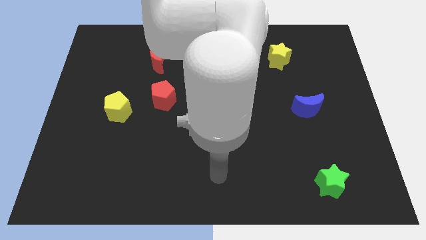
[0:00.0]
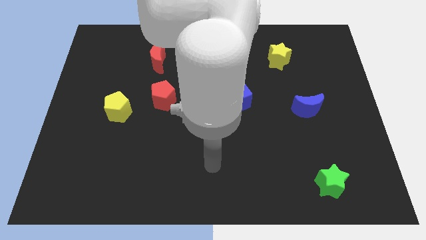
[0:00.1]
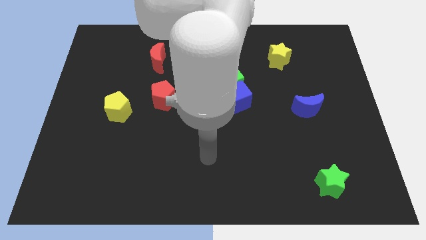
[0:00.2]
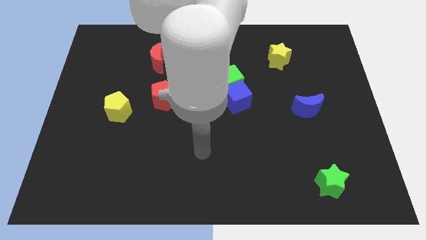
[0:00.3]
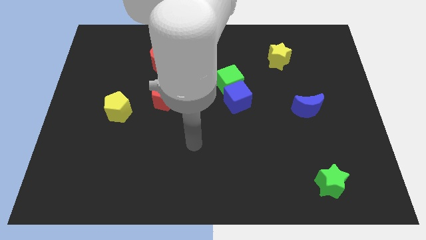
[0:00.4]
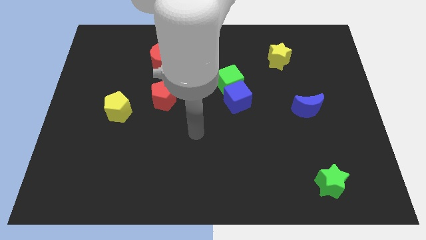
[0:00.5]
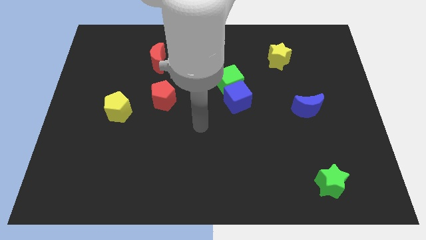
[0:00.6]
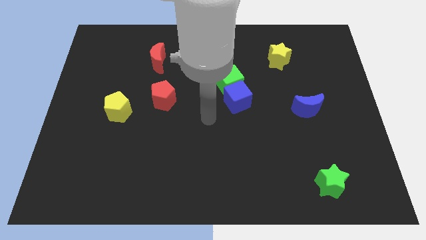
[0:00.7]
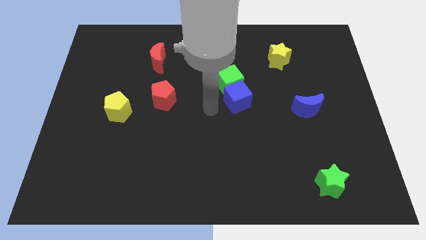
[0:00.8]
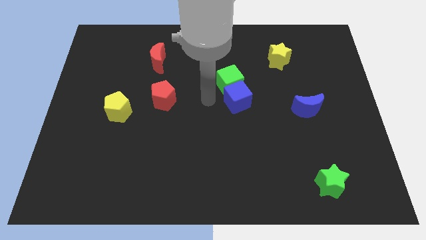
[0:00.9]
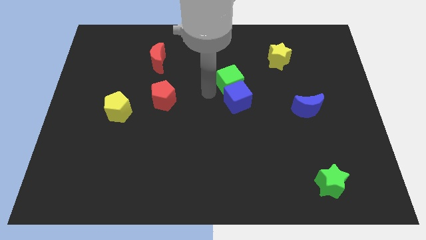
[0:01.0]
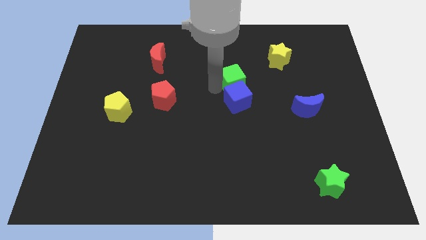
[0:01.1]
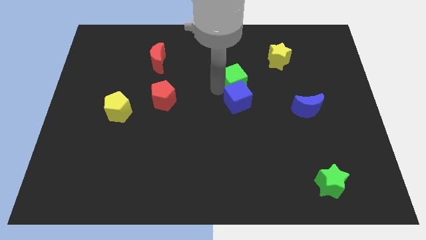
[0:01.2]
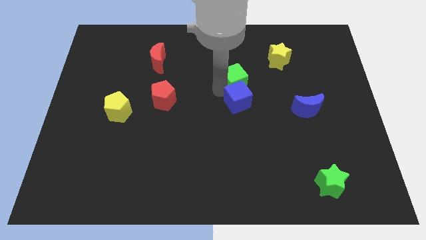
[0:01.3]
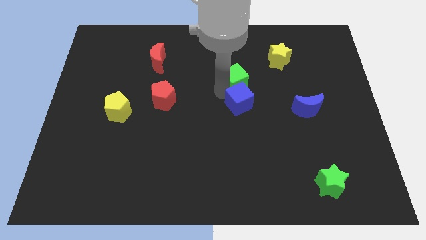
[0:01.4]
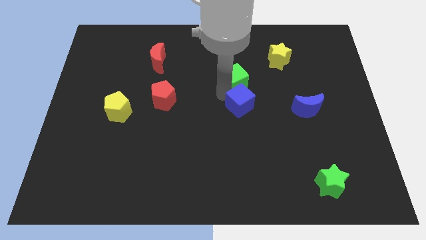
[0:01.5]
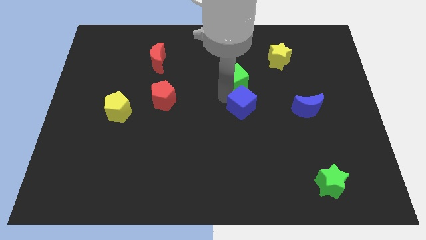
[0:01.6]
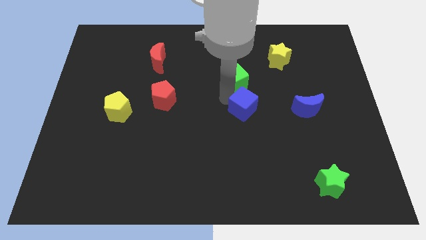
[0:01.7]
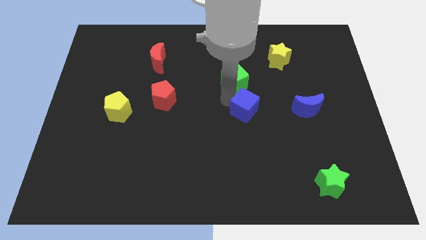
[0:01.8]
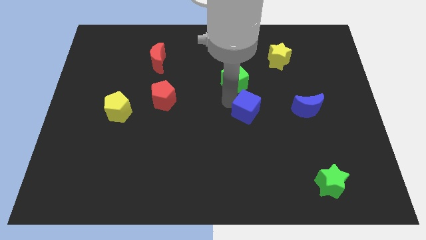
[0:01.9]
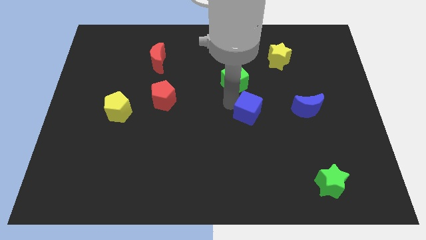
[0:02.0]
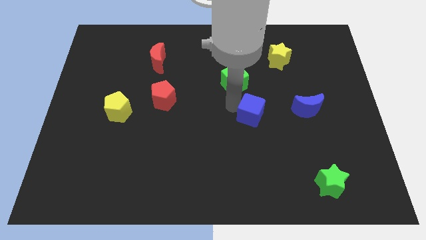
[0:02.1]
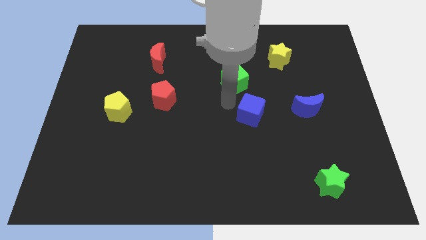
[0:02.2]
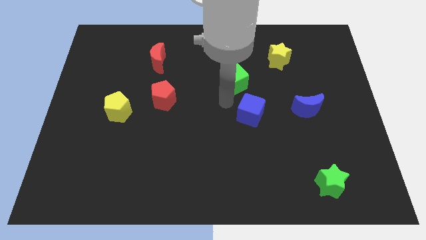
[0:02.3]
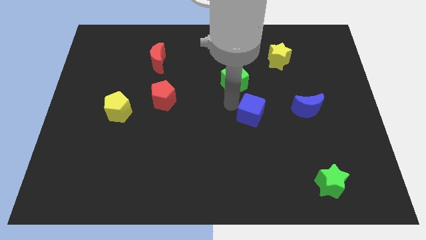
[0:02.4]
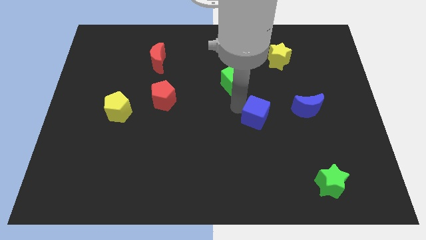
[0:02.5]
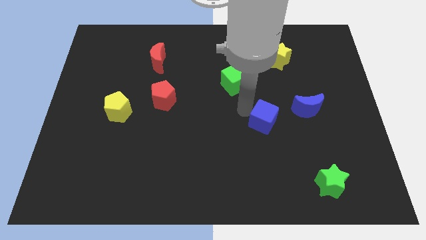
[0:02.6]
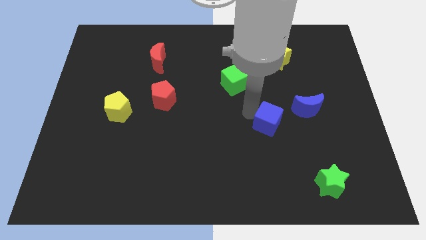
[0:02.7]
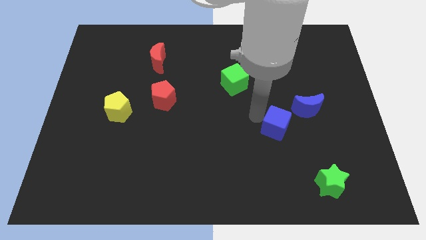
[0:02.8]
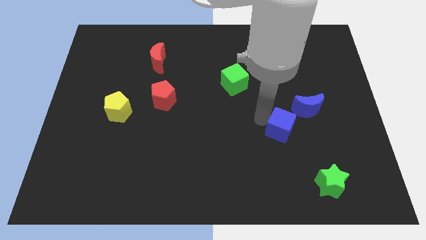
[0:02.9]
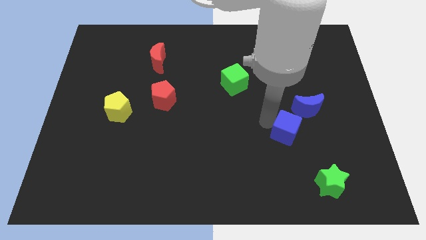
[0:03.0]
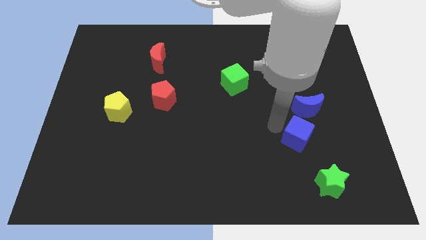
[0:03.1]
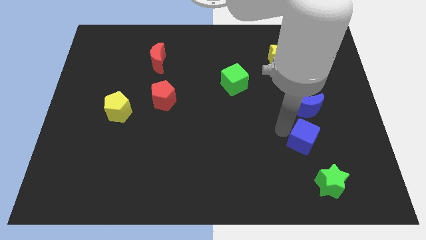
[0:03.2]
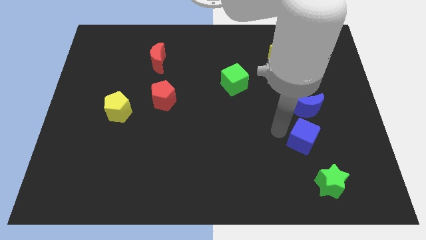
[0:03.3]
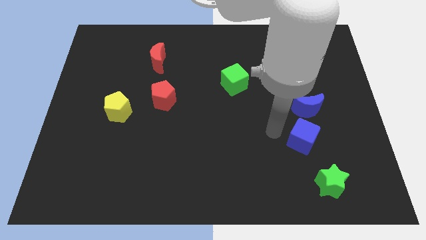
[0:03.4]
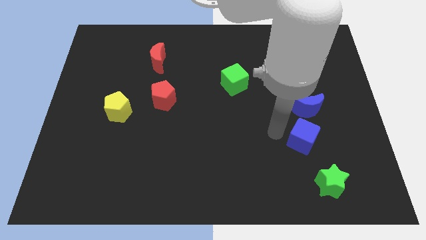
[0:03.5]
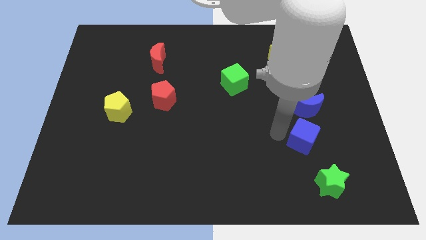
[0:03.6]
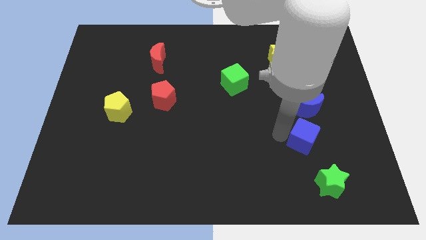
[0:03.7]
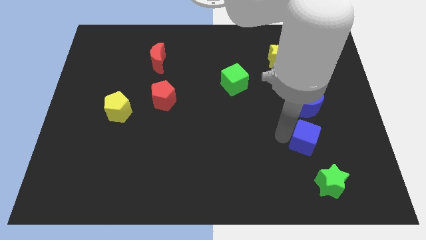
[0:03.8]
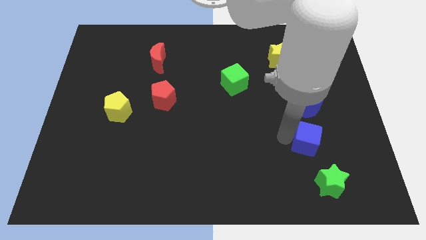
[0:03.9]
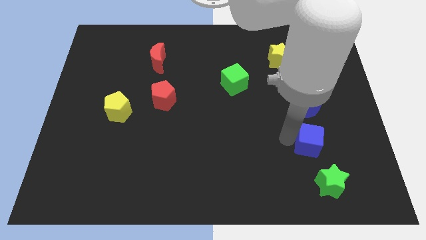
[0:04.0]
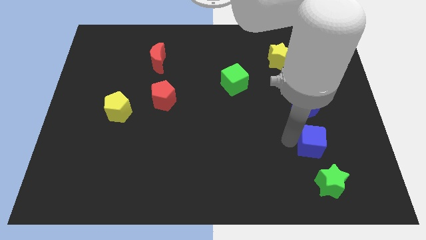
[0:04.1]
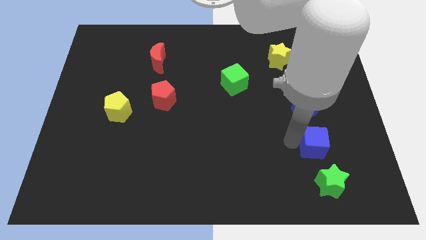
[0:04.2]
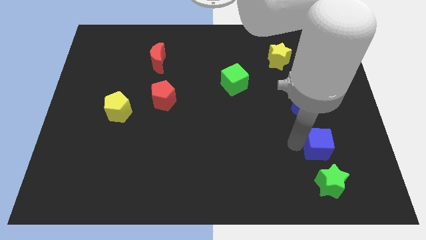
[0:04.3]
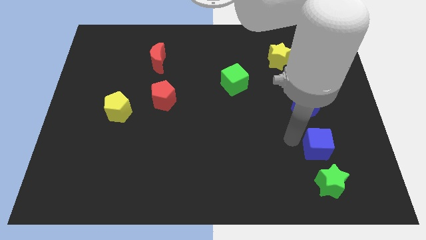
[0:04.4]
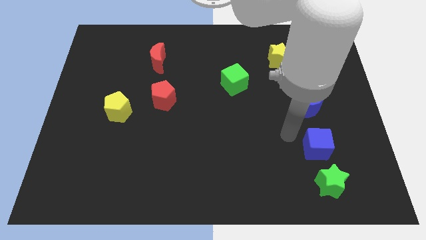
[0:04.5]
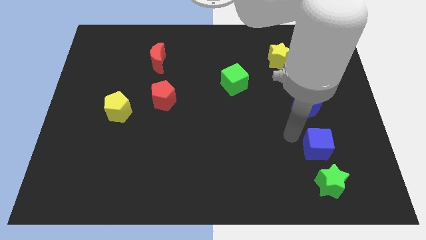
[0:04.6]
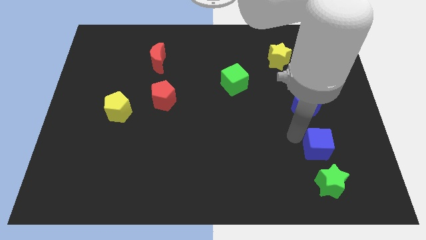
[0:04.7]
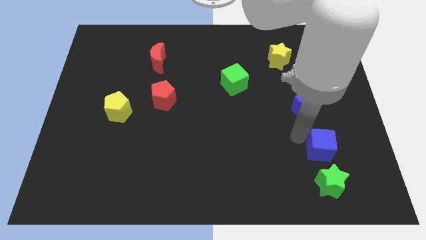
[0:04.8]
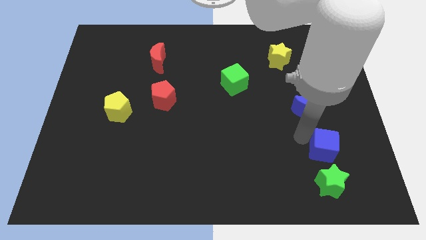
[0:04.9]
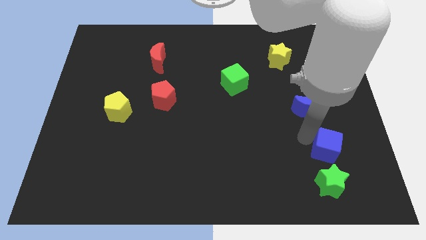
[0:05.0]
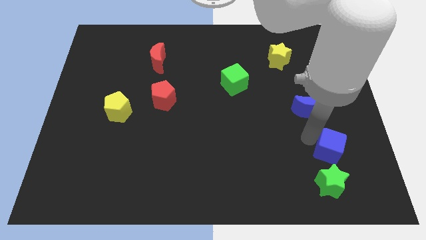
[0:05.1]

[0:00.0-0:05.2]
put the blue cube to the top right side of the green star

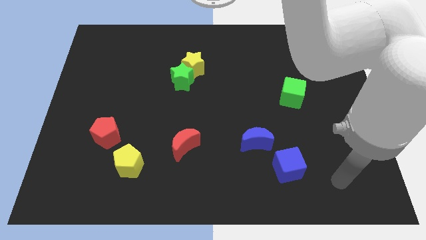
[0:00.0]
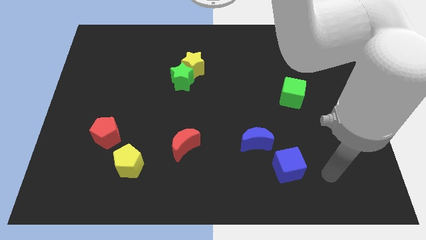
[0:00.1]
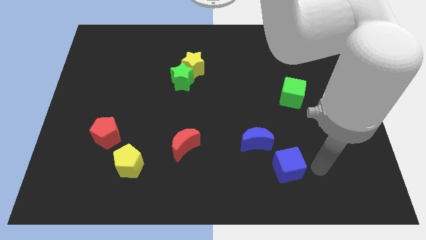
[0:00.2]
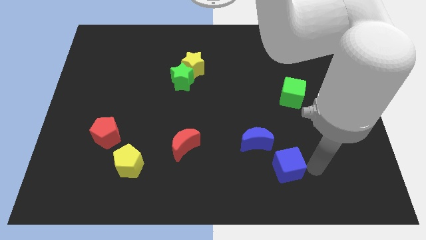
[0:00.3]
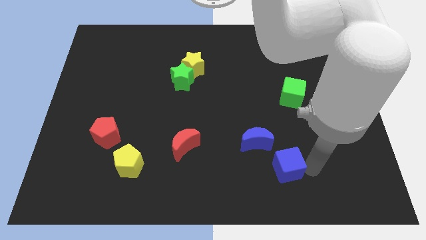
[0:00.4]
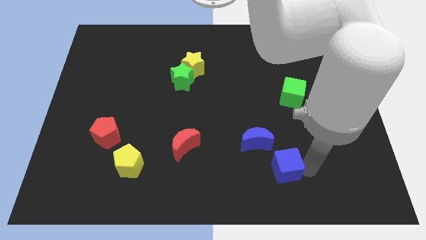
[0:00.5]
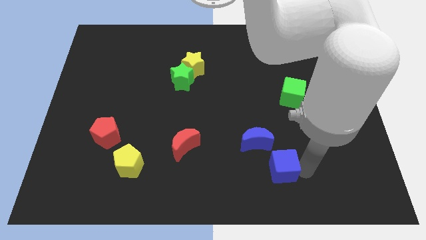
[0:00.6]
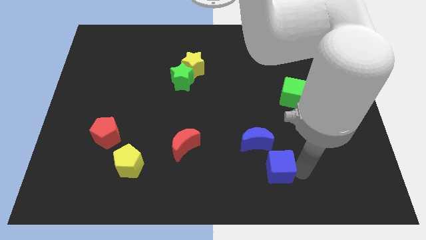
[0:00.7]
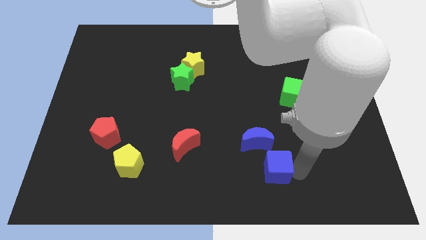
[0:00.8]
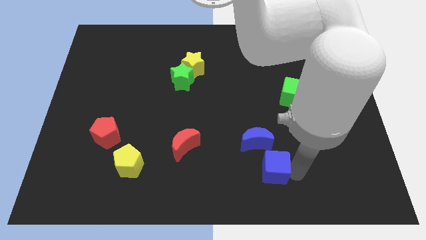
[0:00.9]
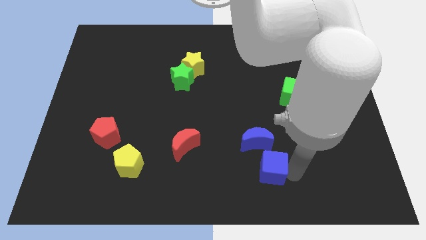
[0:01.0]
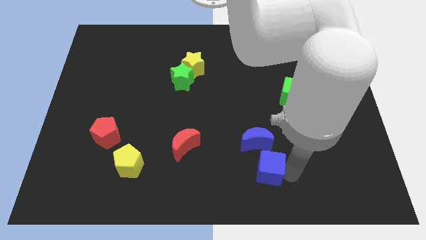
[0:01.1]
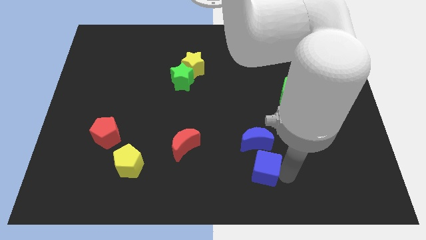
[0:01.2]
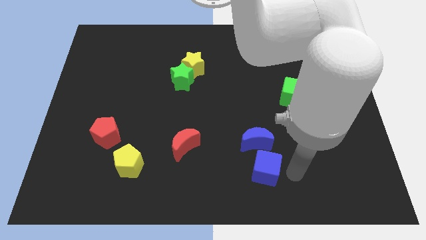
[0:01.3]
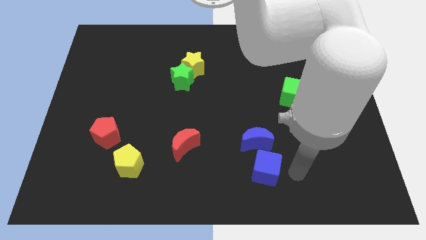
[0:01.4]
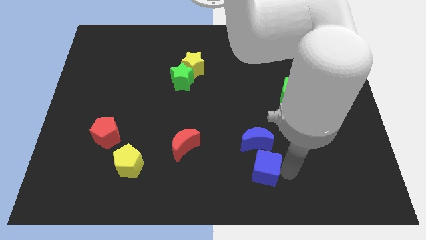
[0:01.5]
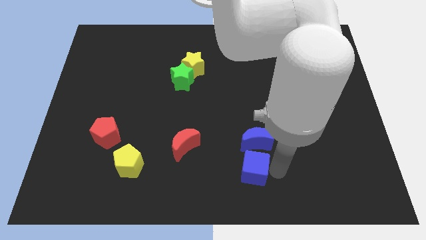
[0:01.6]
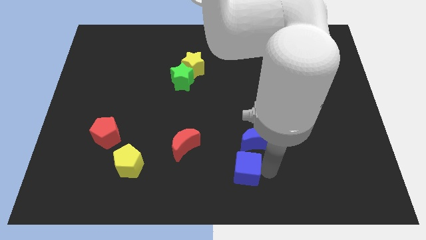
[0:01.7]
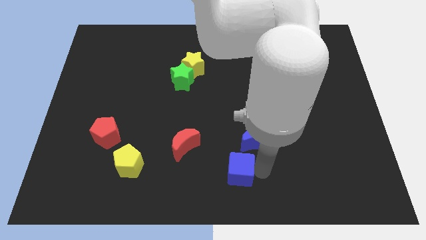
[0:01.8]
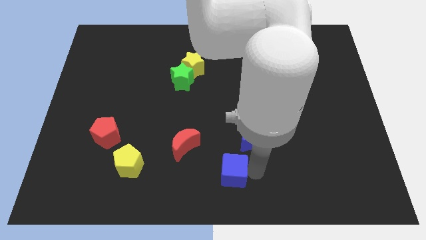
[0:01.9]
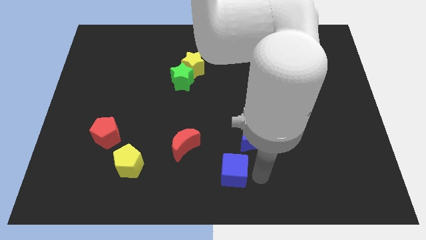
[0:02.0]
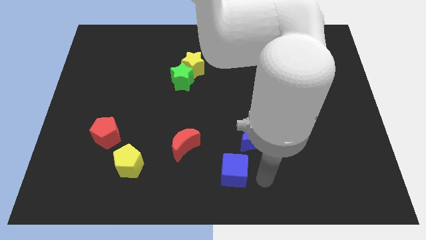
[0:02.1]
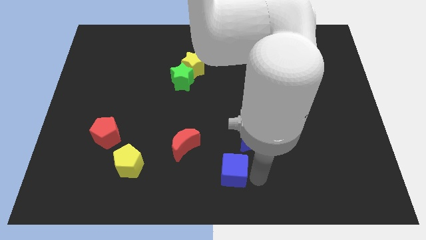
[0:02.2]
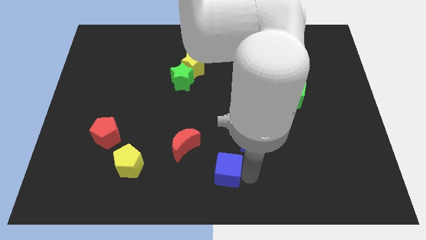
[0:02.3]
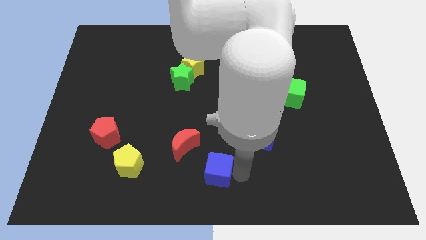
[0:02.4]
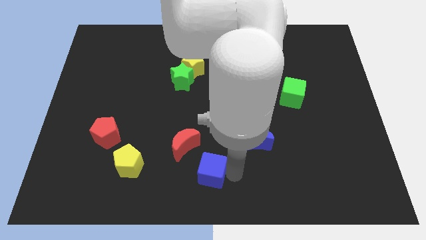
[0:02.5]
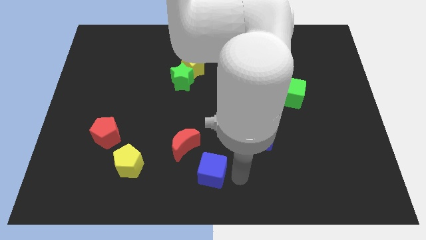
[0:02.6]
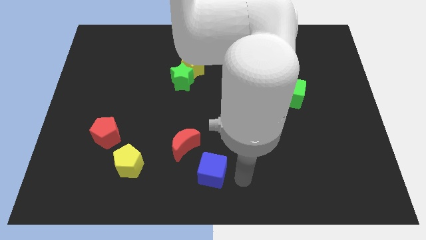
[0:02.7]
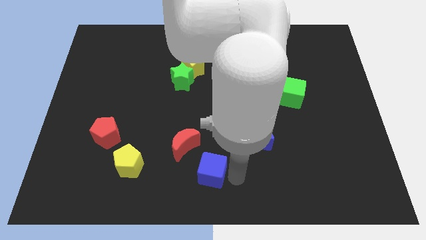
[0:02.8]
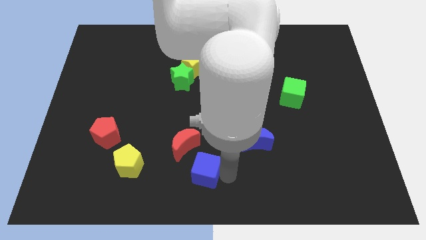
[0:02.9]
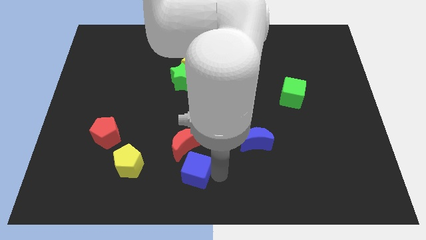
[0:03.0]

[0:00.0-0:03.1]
slide the blue cube to the right side of the yellow pentagon
